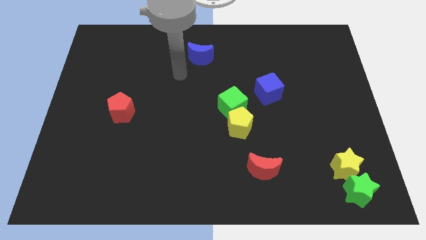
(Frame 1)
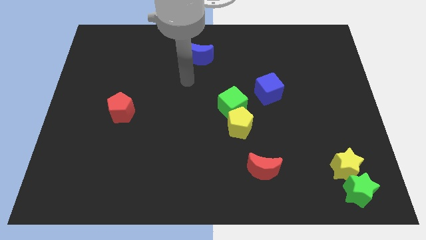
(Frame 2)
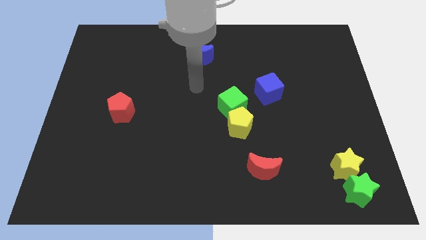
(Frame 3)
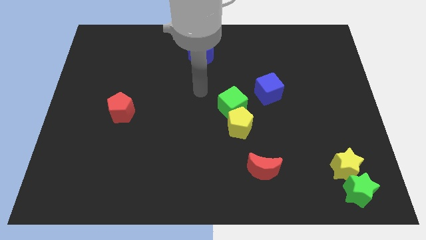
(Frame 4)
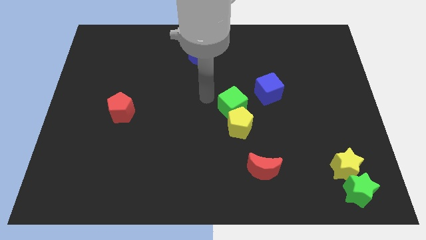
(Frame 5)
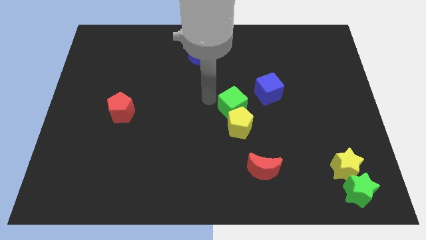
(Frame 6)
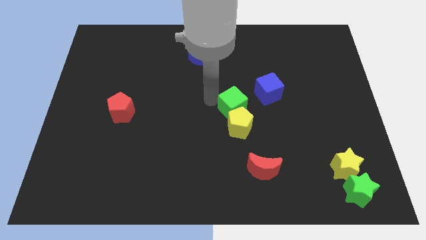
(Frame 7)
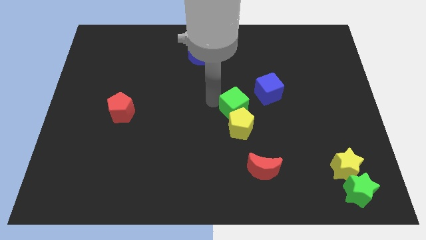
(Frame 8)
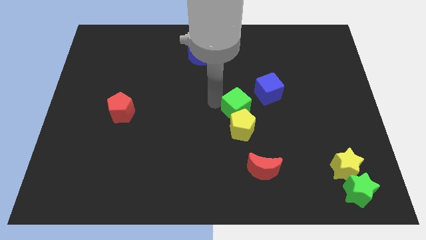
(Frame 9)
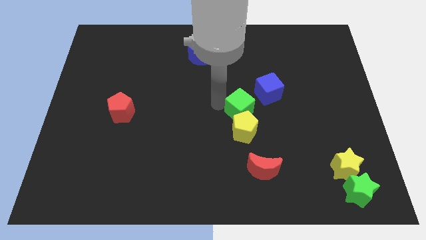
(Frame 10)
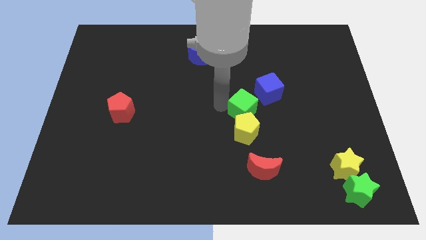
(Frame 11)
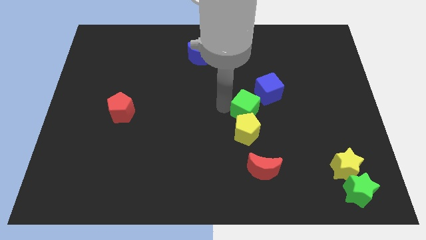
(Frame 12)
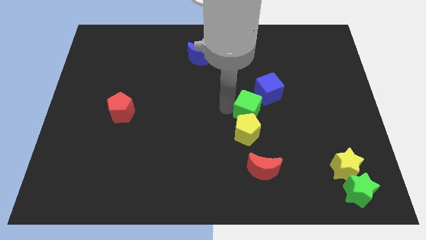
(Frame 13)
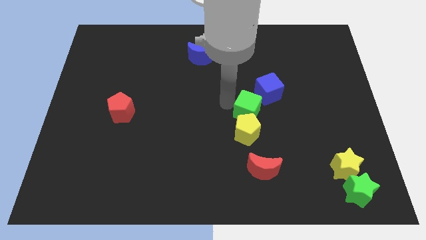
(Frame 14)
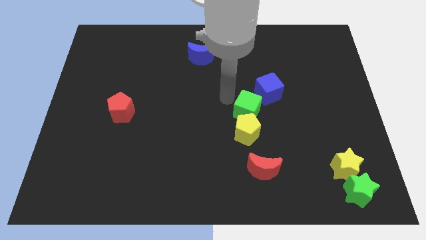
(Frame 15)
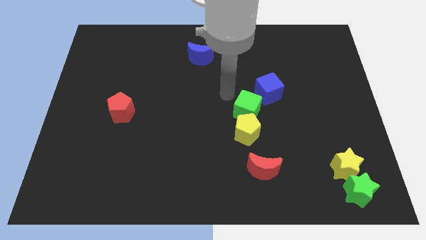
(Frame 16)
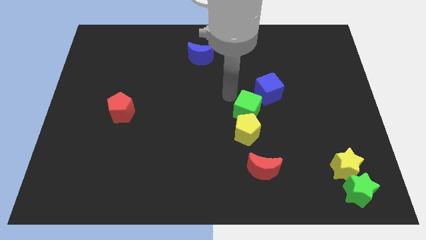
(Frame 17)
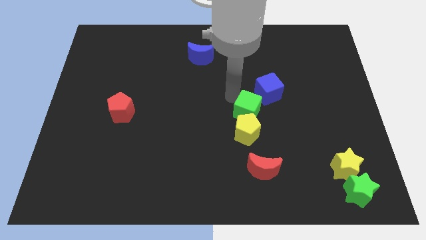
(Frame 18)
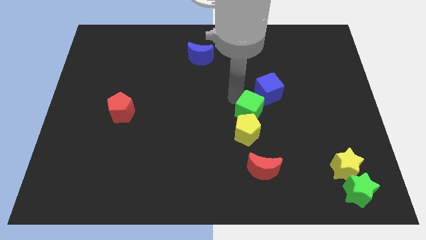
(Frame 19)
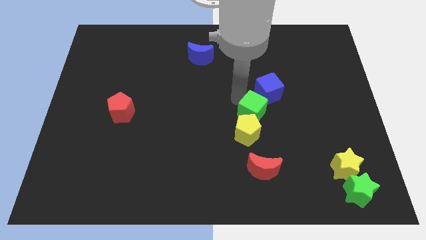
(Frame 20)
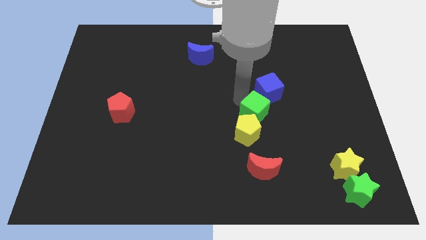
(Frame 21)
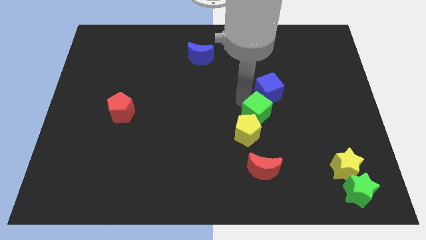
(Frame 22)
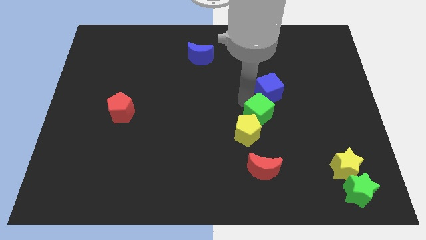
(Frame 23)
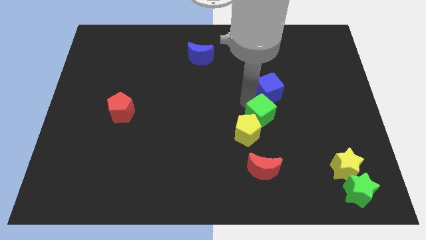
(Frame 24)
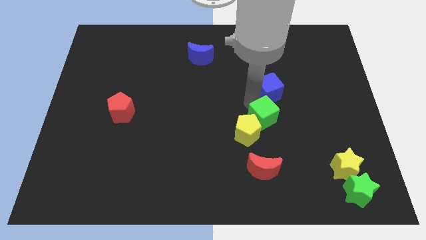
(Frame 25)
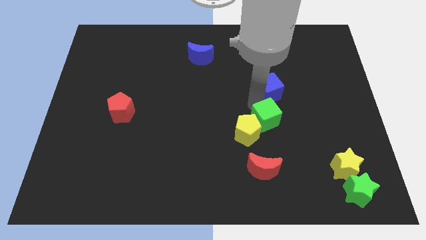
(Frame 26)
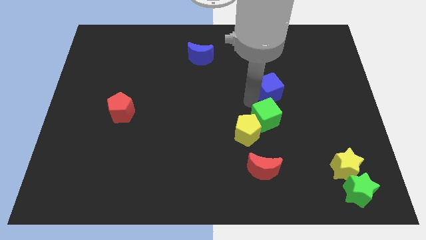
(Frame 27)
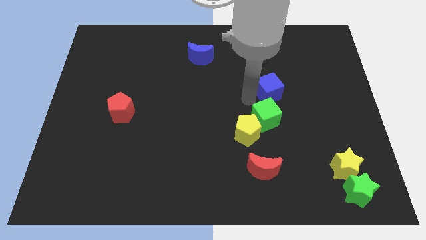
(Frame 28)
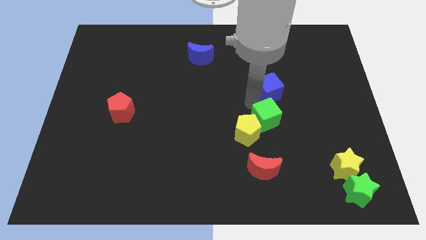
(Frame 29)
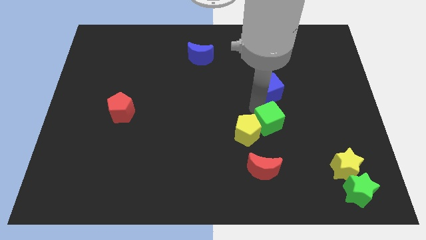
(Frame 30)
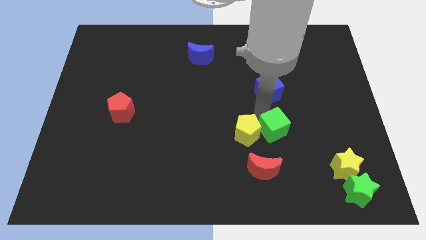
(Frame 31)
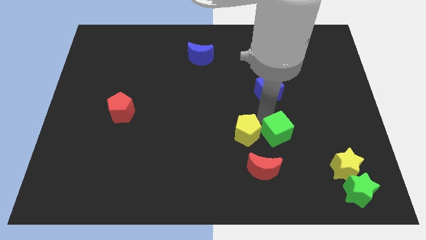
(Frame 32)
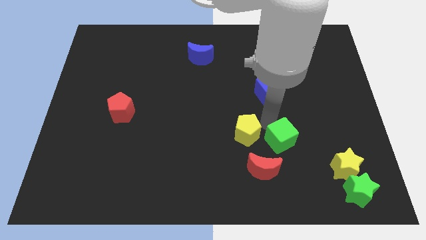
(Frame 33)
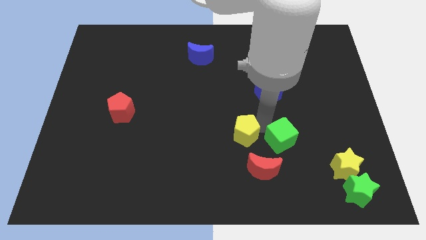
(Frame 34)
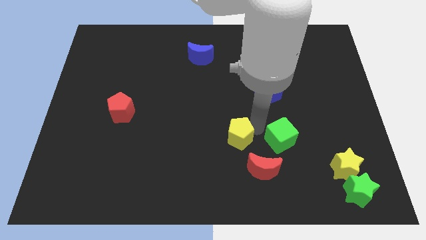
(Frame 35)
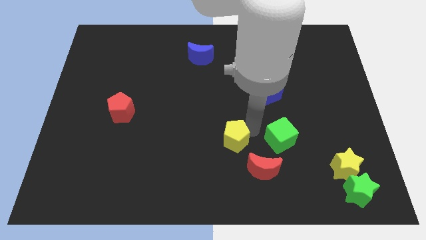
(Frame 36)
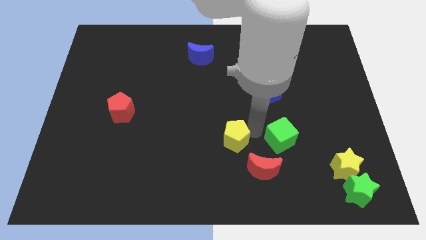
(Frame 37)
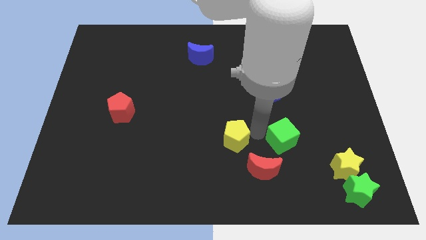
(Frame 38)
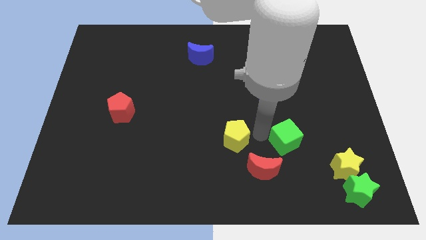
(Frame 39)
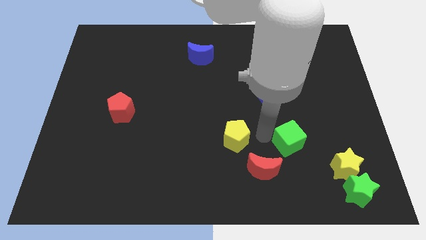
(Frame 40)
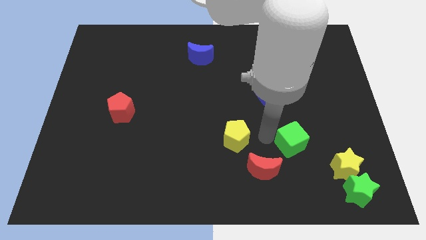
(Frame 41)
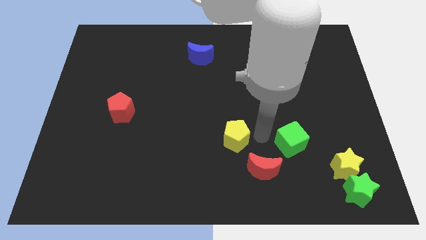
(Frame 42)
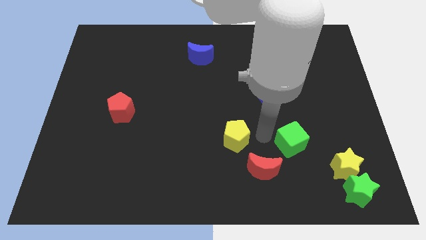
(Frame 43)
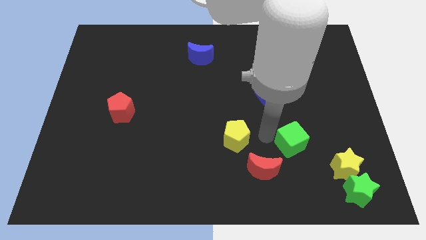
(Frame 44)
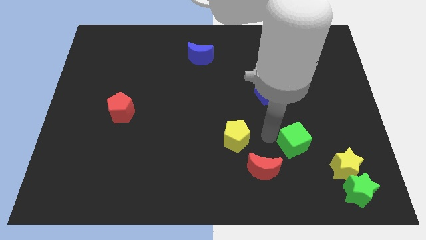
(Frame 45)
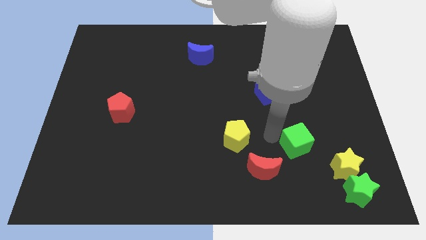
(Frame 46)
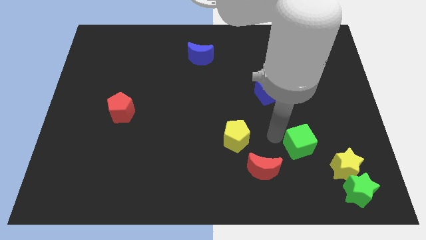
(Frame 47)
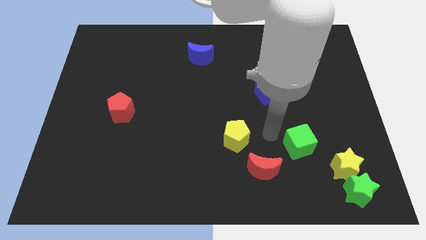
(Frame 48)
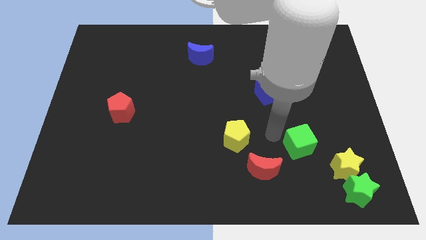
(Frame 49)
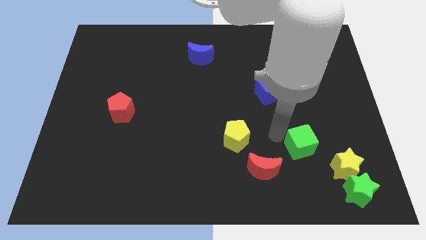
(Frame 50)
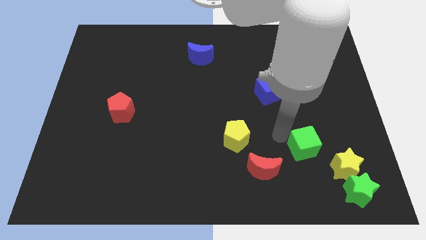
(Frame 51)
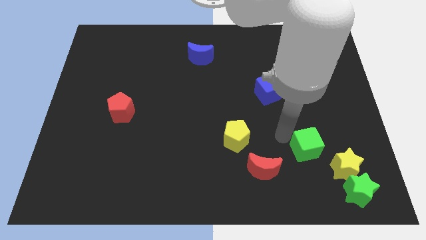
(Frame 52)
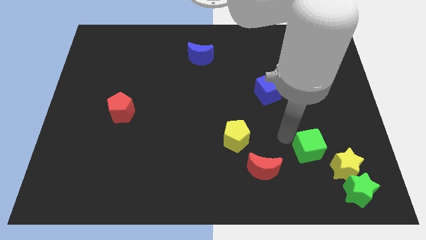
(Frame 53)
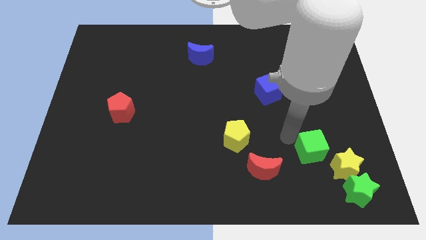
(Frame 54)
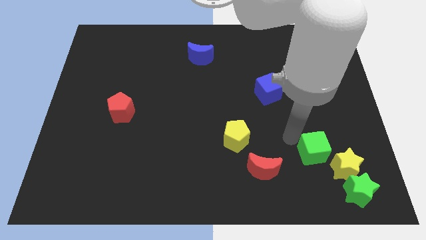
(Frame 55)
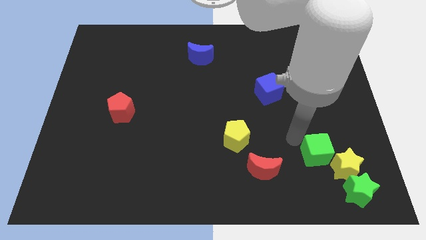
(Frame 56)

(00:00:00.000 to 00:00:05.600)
put the green cube close to the yellow star

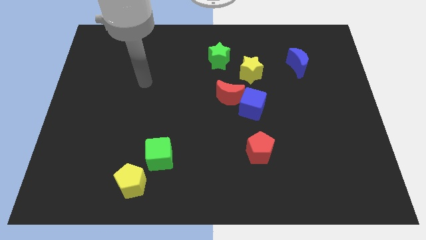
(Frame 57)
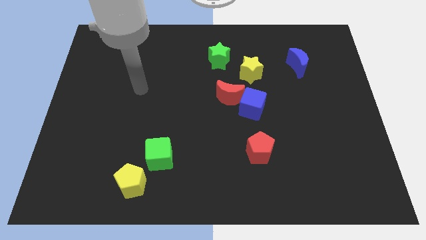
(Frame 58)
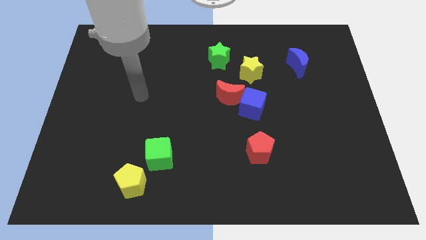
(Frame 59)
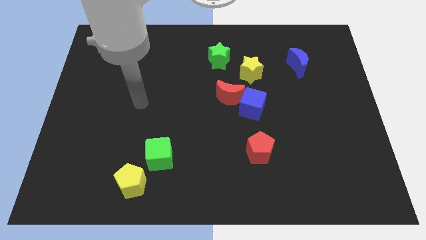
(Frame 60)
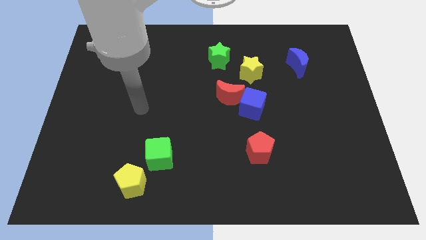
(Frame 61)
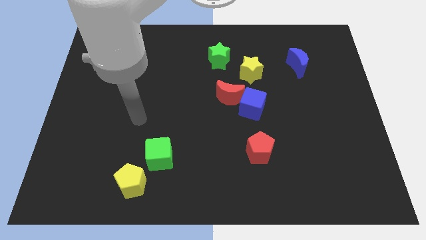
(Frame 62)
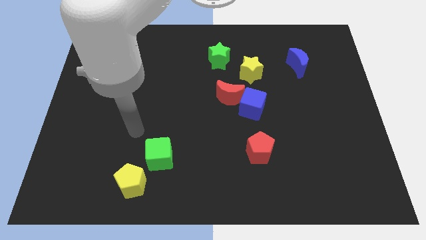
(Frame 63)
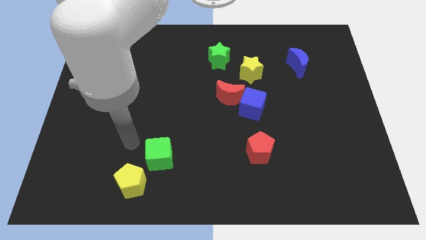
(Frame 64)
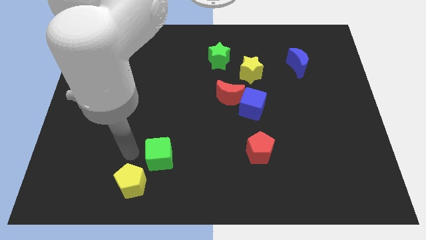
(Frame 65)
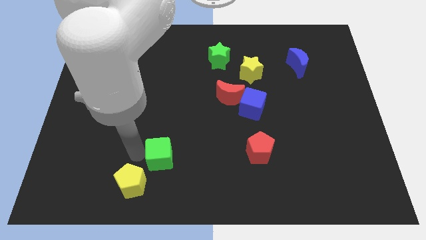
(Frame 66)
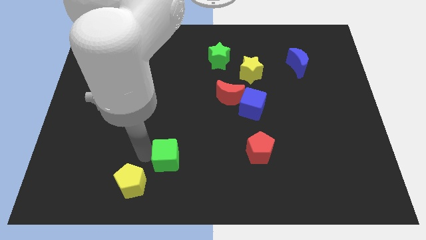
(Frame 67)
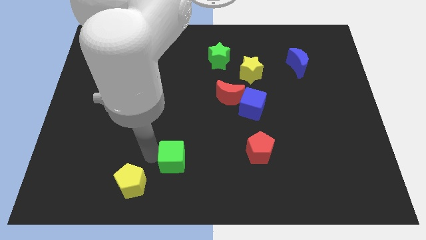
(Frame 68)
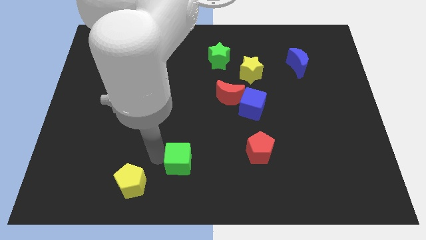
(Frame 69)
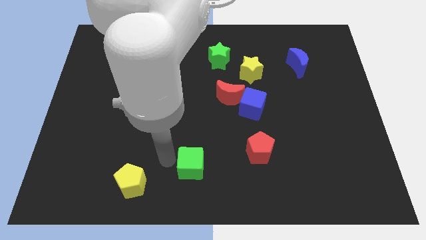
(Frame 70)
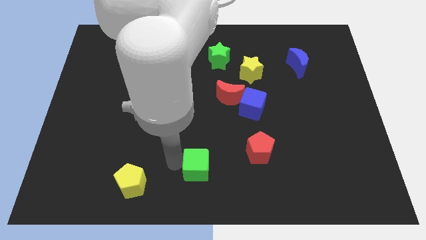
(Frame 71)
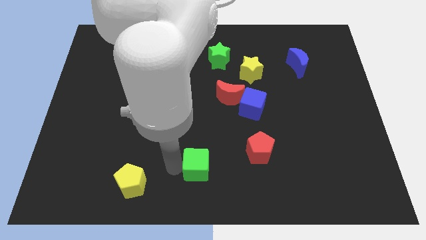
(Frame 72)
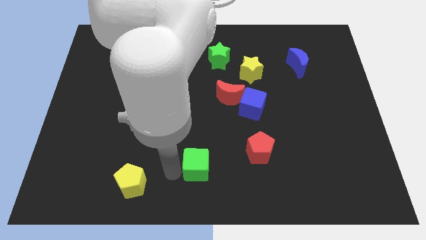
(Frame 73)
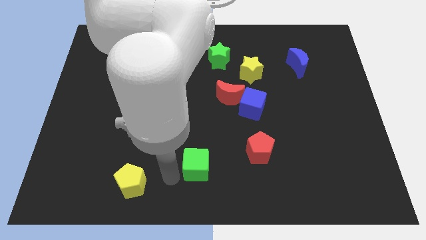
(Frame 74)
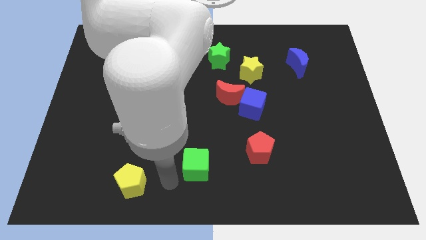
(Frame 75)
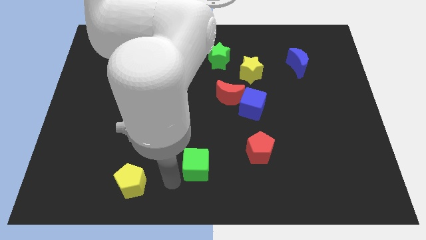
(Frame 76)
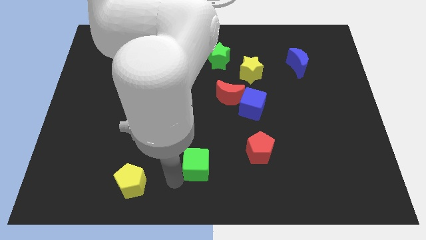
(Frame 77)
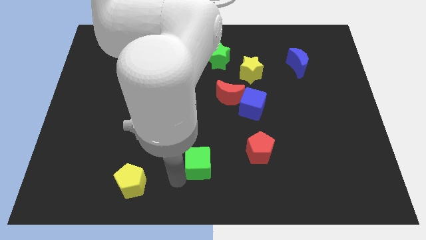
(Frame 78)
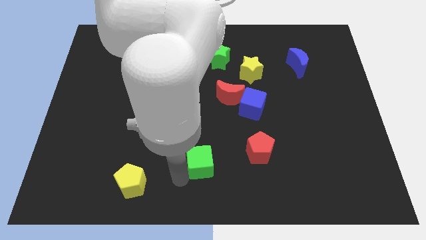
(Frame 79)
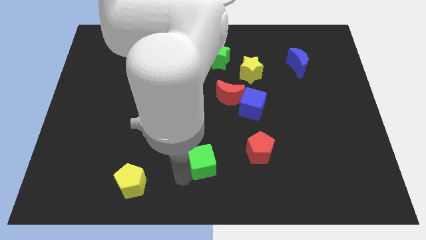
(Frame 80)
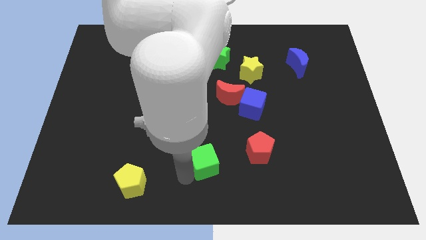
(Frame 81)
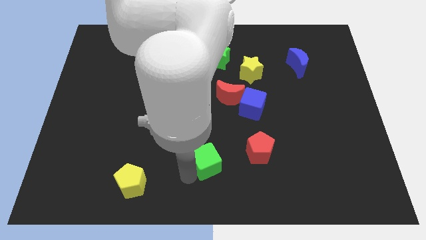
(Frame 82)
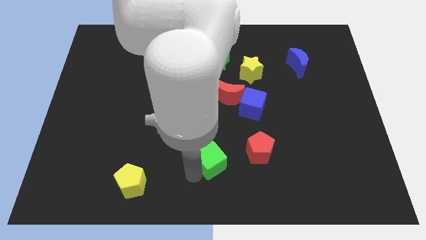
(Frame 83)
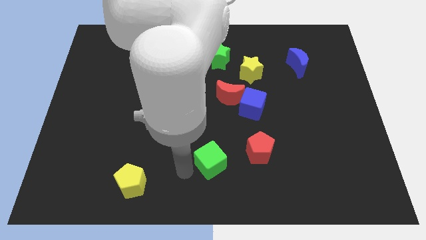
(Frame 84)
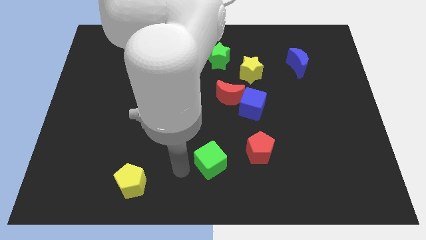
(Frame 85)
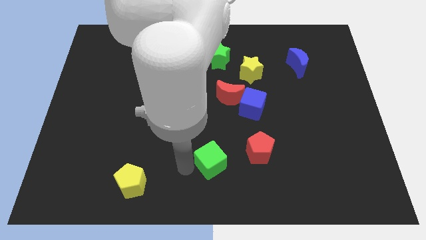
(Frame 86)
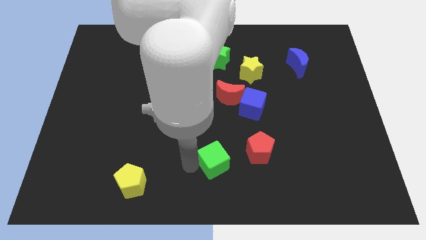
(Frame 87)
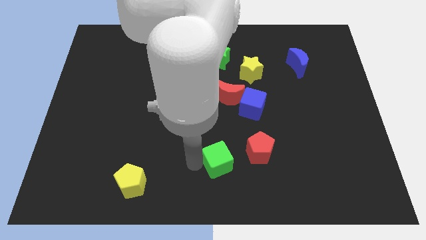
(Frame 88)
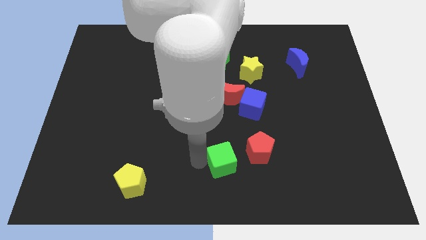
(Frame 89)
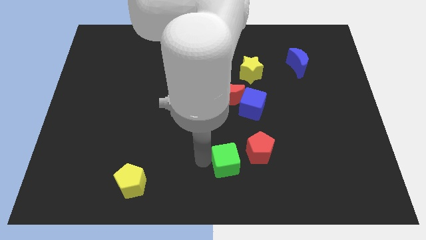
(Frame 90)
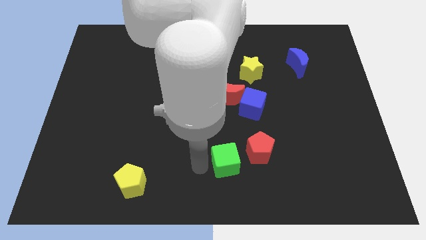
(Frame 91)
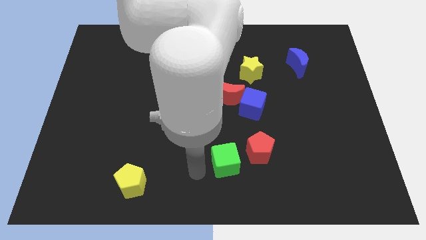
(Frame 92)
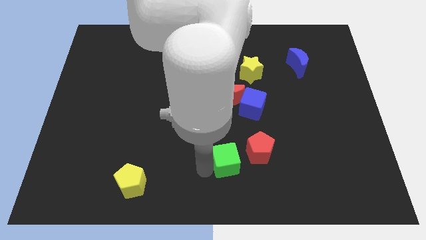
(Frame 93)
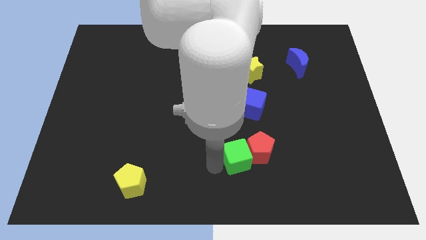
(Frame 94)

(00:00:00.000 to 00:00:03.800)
move the green cube next to the red pentagon
